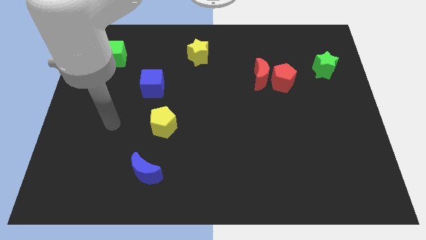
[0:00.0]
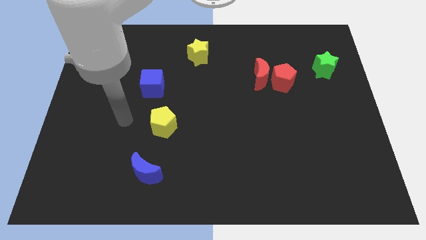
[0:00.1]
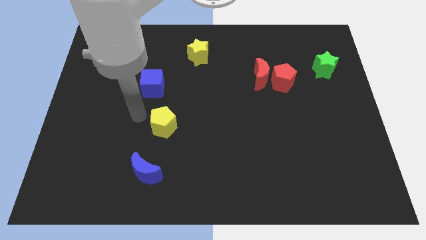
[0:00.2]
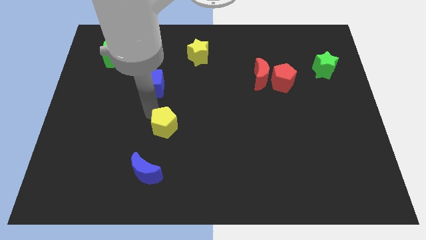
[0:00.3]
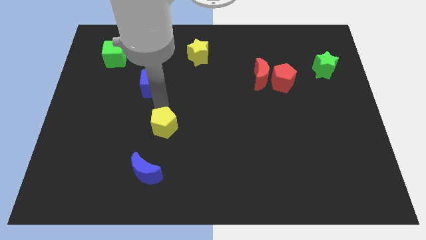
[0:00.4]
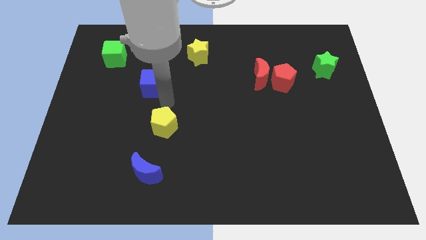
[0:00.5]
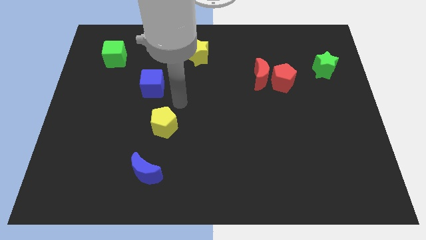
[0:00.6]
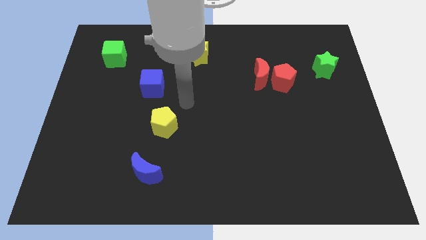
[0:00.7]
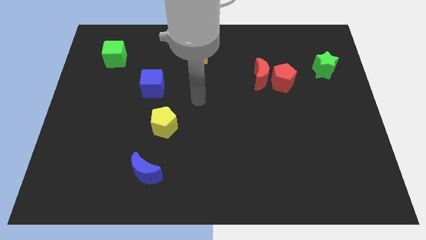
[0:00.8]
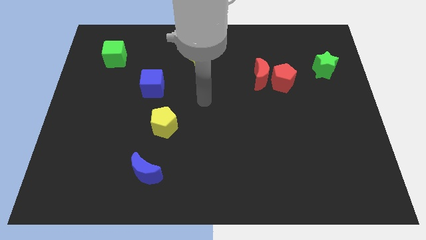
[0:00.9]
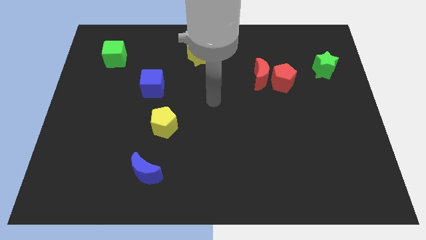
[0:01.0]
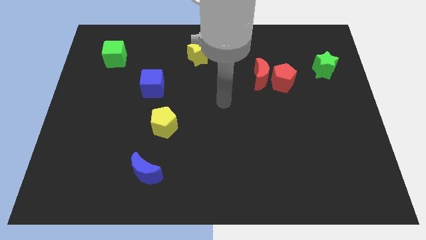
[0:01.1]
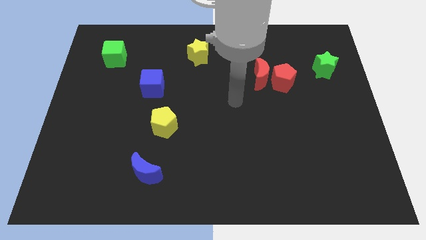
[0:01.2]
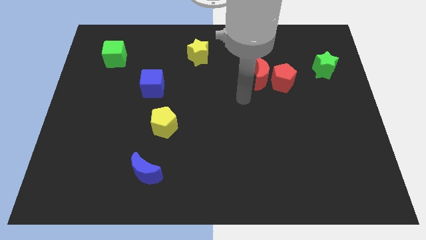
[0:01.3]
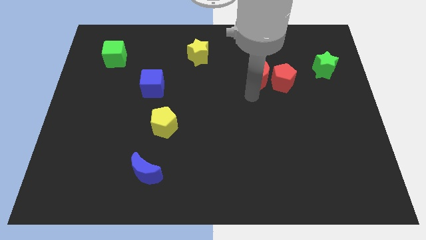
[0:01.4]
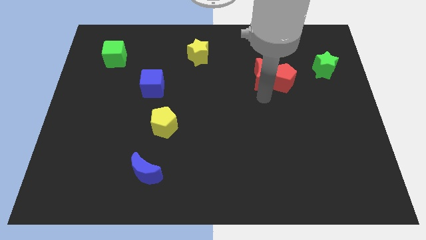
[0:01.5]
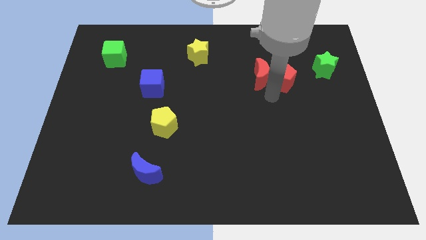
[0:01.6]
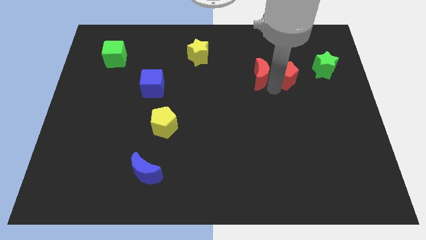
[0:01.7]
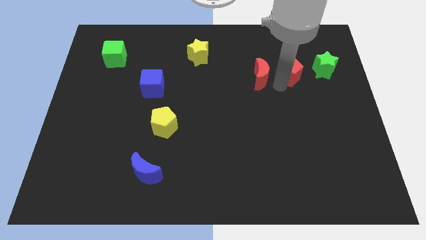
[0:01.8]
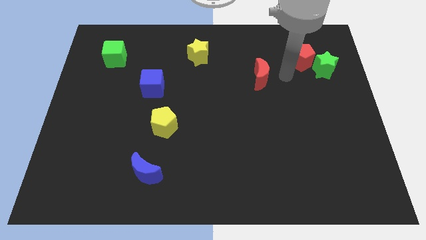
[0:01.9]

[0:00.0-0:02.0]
move the red moon away from the red pentagon

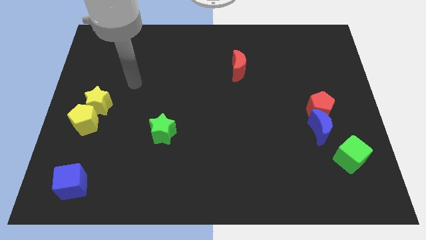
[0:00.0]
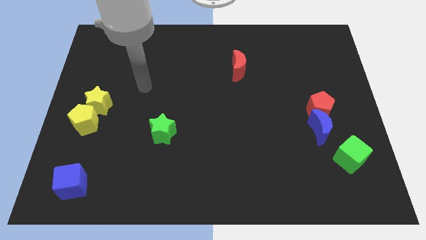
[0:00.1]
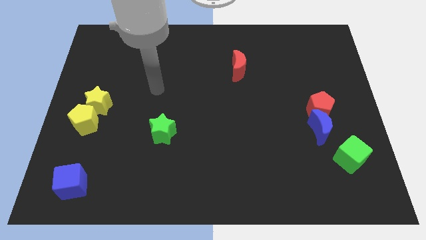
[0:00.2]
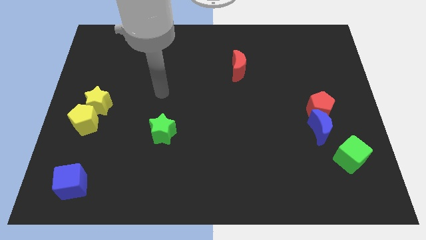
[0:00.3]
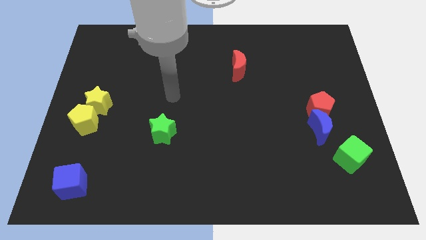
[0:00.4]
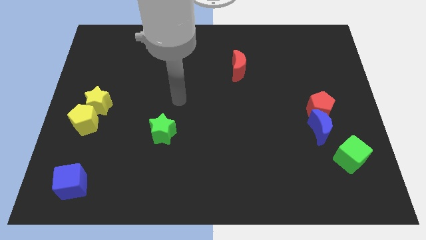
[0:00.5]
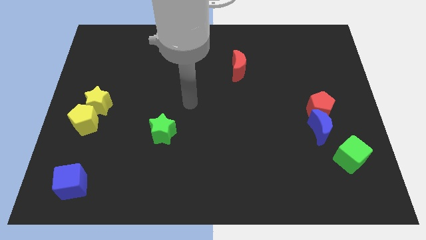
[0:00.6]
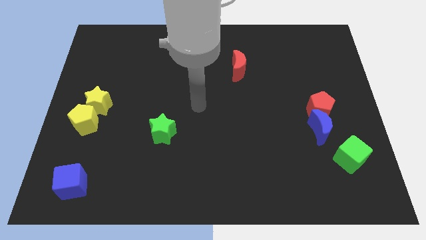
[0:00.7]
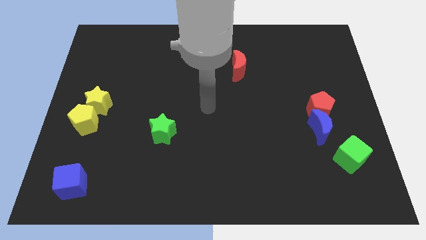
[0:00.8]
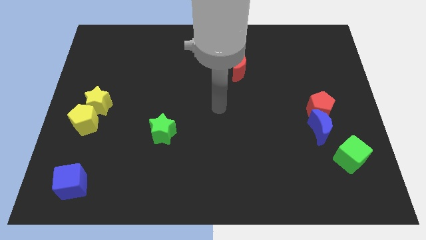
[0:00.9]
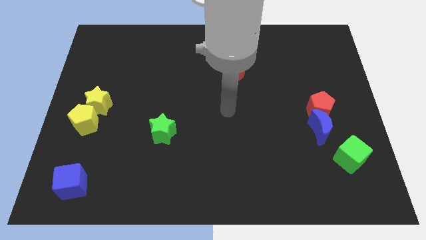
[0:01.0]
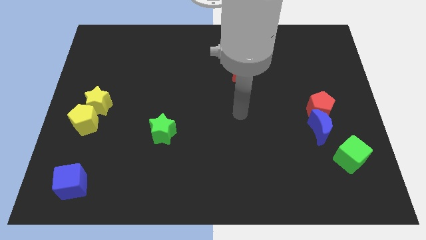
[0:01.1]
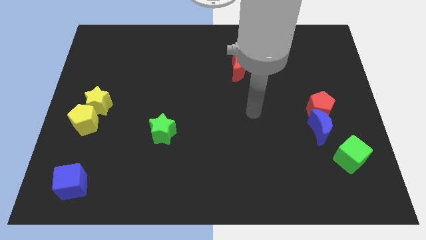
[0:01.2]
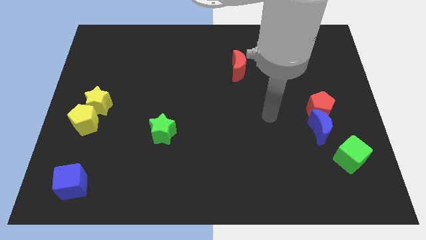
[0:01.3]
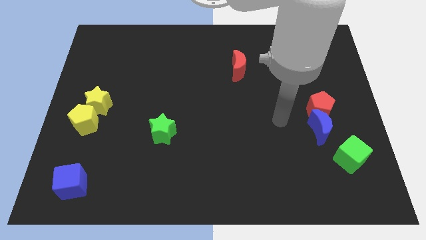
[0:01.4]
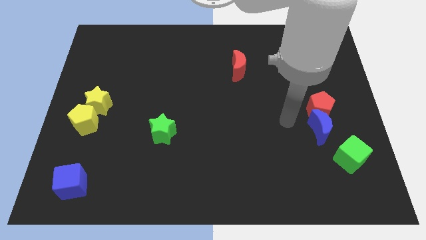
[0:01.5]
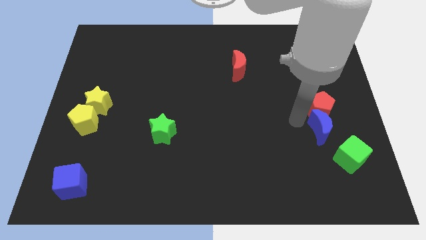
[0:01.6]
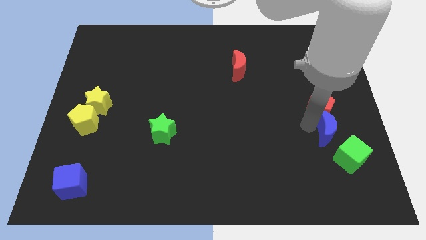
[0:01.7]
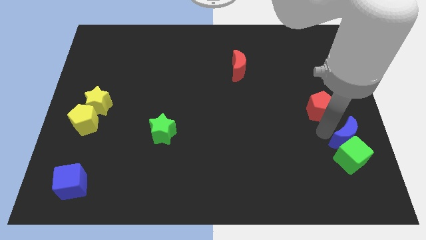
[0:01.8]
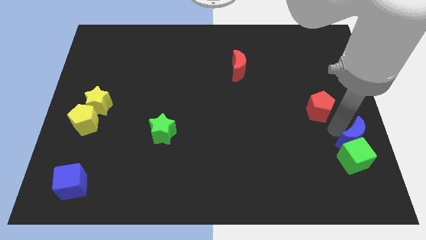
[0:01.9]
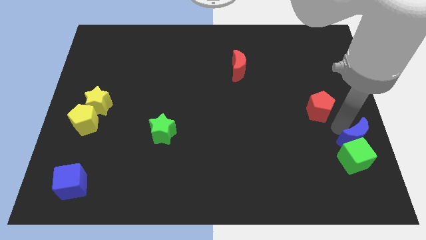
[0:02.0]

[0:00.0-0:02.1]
move the red pentagon away from the blue moon

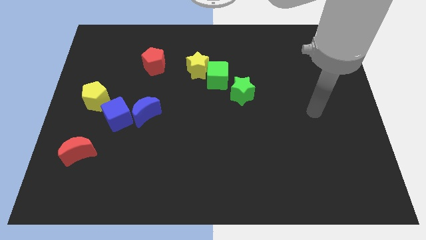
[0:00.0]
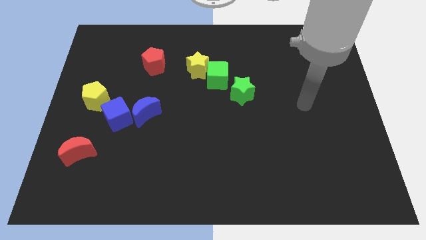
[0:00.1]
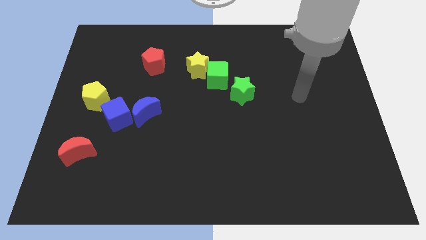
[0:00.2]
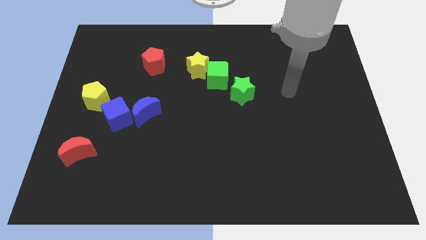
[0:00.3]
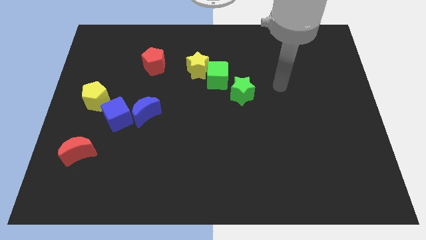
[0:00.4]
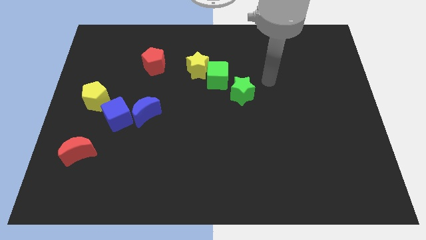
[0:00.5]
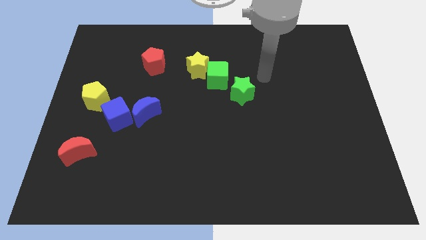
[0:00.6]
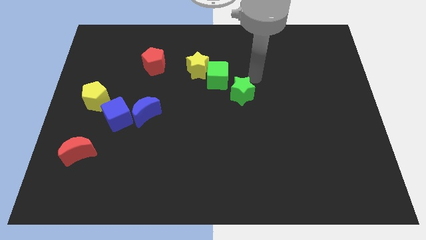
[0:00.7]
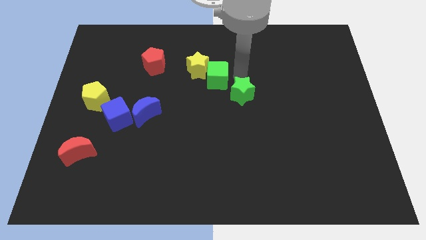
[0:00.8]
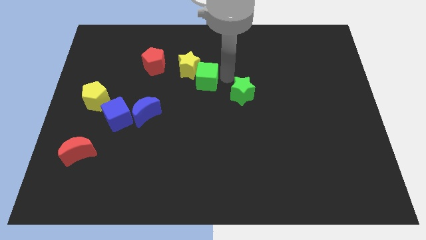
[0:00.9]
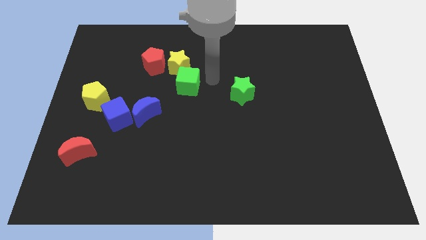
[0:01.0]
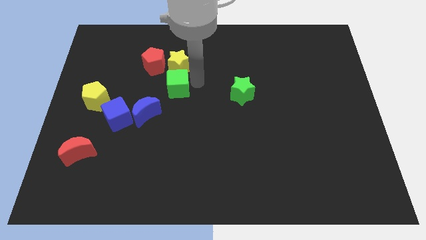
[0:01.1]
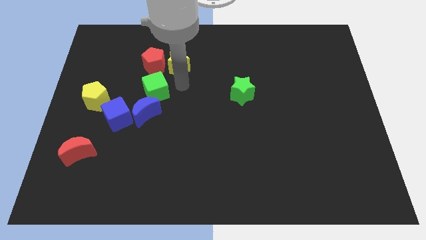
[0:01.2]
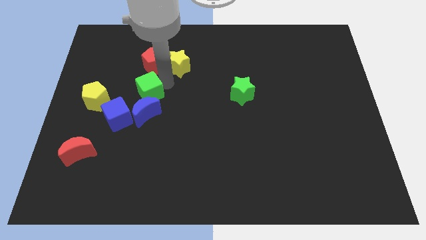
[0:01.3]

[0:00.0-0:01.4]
separate the yellow star from the green cube

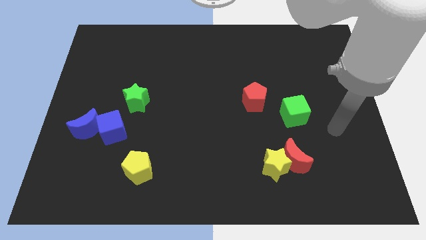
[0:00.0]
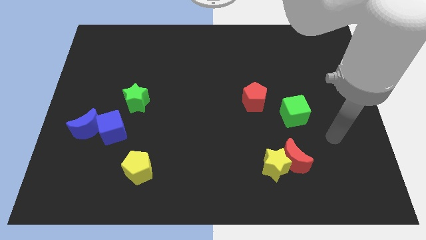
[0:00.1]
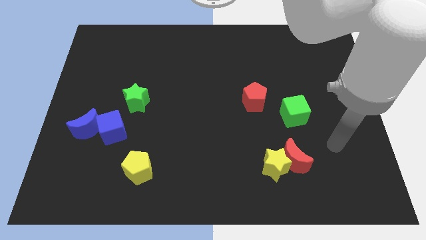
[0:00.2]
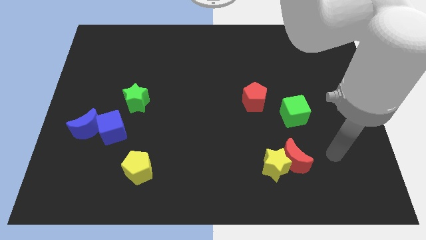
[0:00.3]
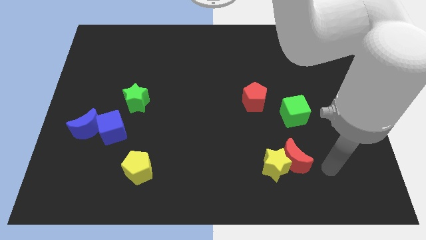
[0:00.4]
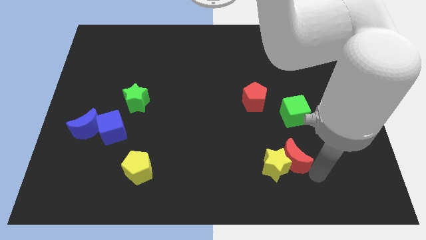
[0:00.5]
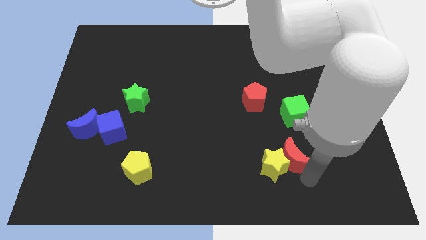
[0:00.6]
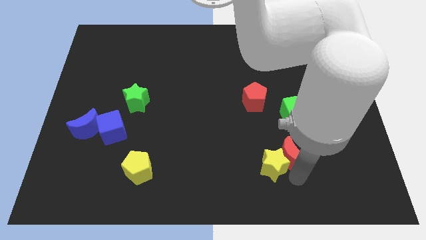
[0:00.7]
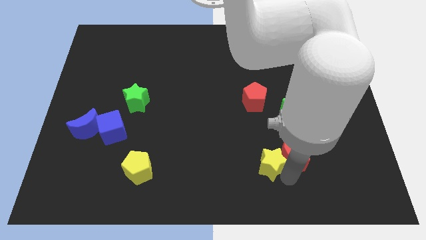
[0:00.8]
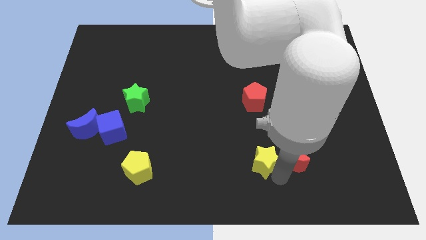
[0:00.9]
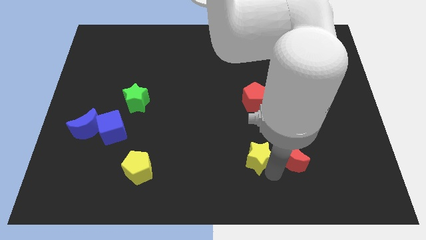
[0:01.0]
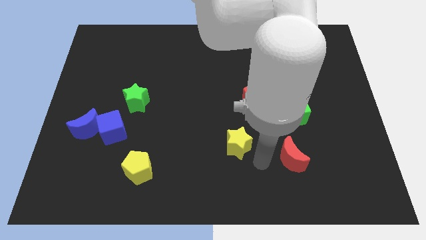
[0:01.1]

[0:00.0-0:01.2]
pull the red moon apart from the yellow star

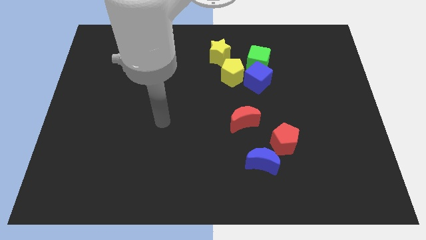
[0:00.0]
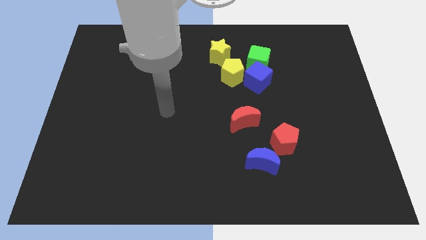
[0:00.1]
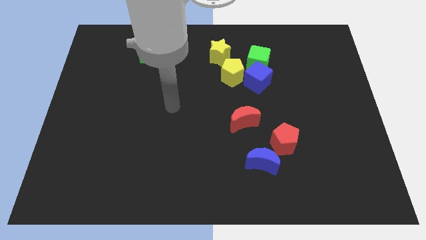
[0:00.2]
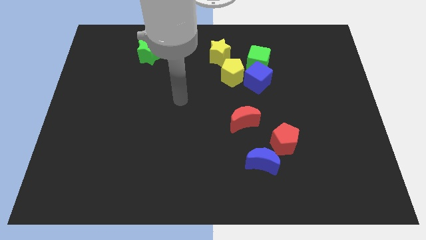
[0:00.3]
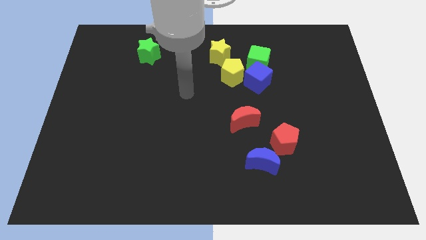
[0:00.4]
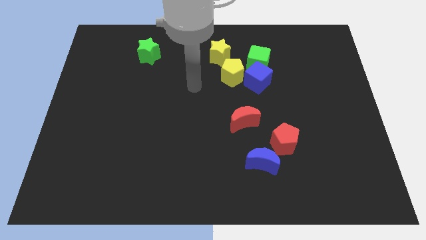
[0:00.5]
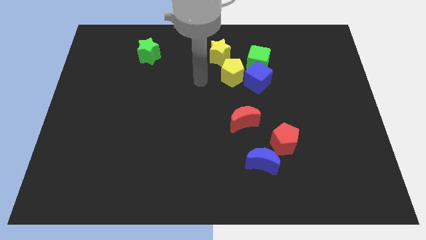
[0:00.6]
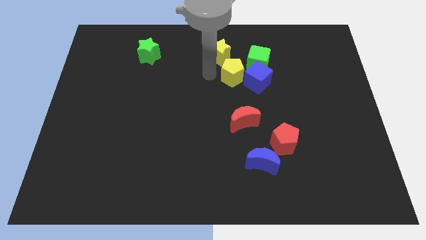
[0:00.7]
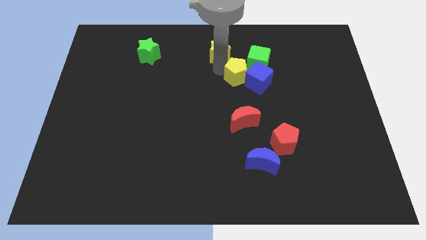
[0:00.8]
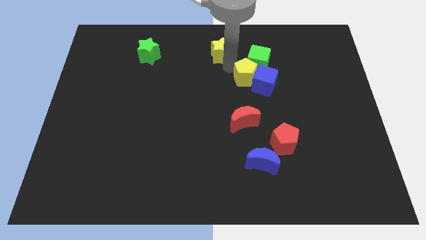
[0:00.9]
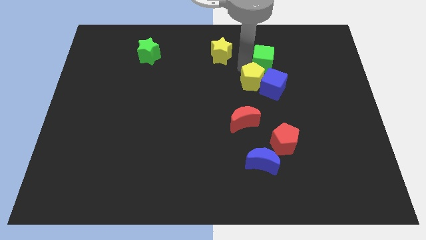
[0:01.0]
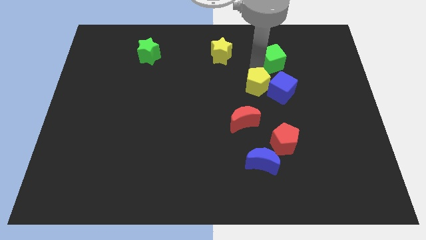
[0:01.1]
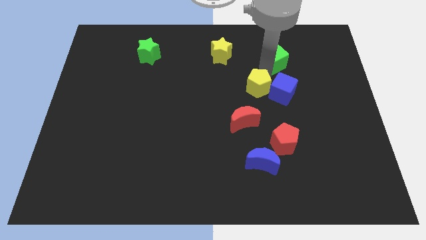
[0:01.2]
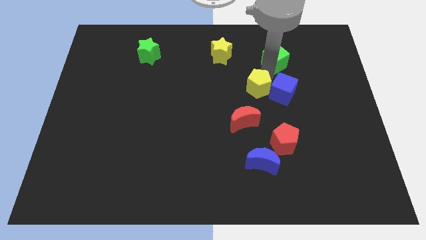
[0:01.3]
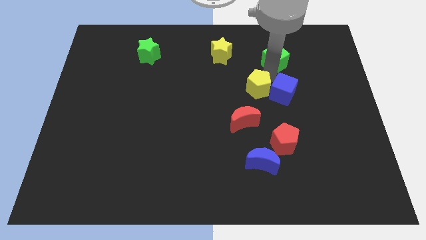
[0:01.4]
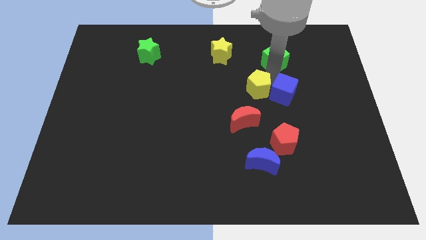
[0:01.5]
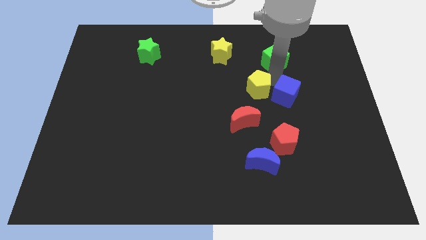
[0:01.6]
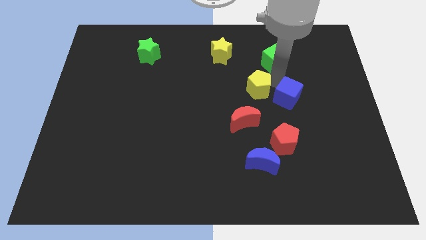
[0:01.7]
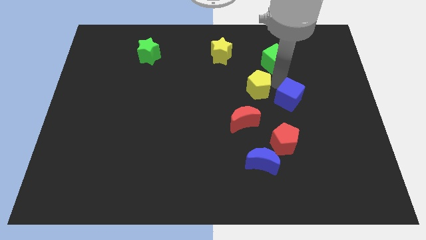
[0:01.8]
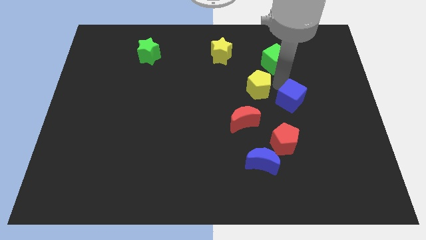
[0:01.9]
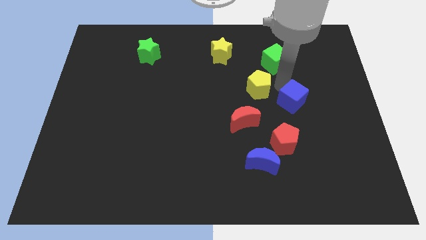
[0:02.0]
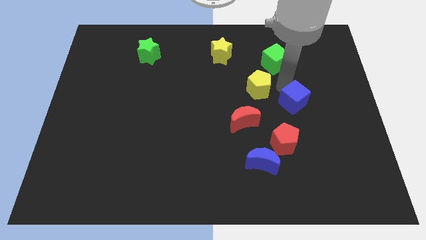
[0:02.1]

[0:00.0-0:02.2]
move the blue cube away from the green cube and yellow pentagon
